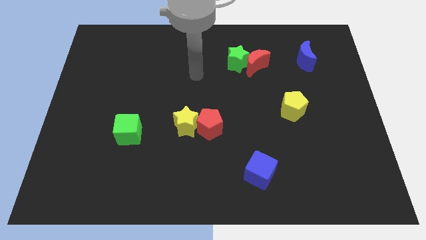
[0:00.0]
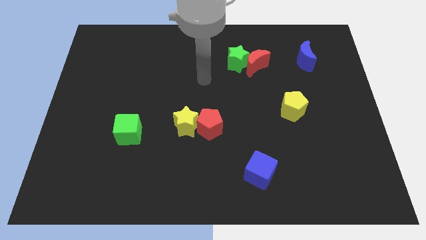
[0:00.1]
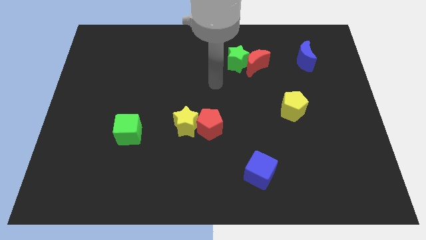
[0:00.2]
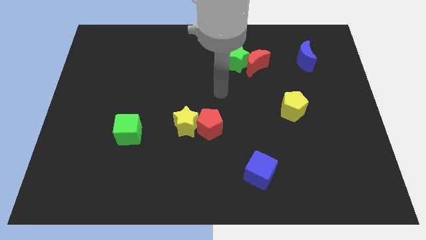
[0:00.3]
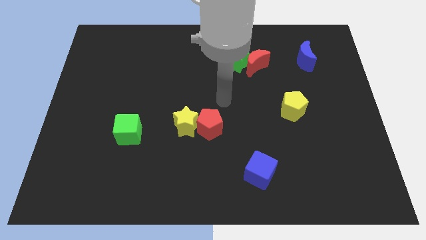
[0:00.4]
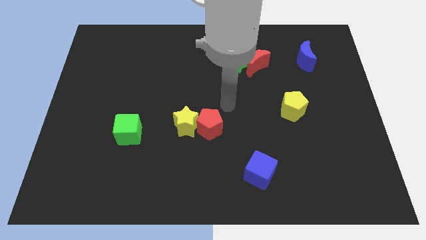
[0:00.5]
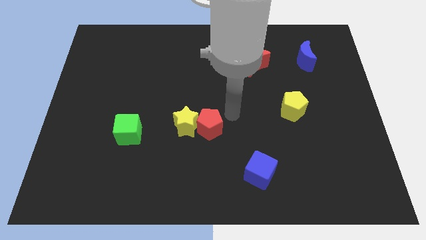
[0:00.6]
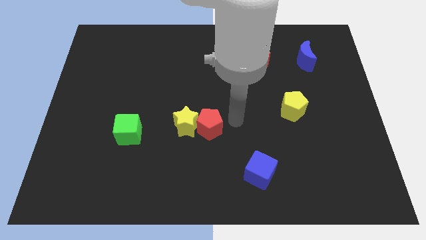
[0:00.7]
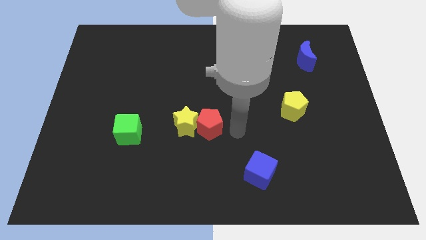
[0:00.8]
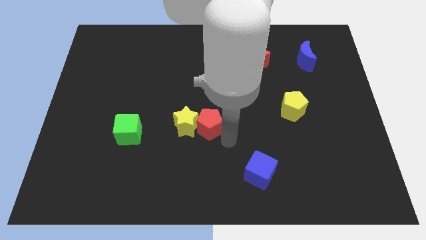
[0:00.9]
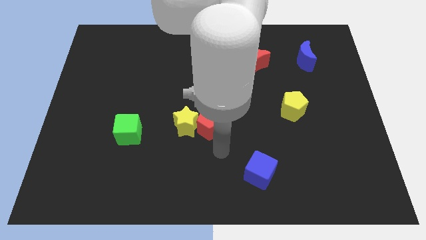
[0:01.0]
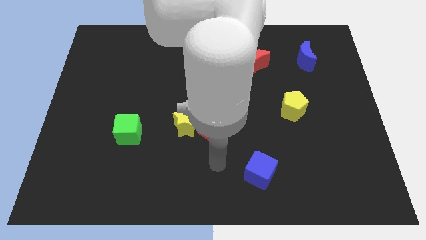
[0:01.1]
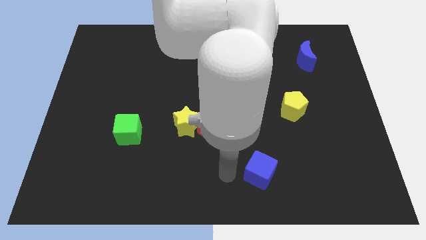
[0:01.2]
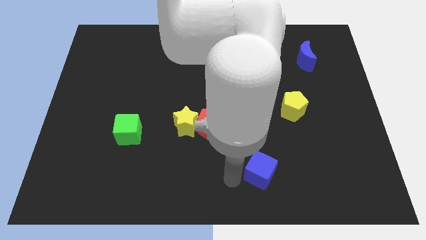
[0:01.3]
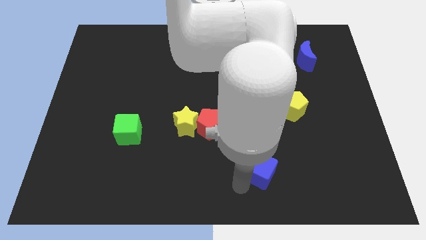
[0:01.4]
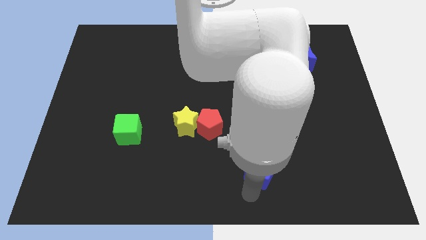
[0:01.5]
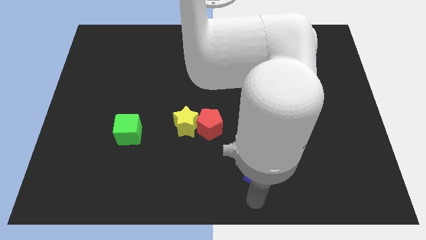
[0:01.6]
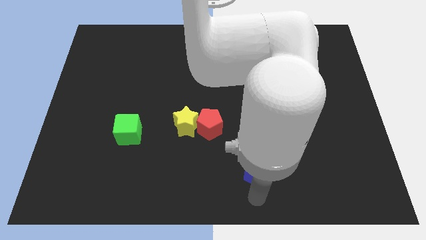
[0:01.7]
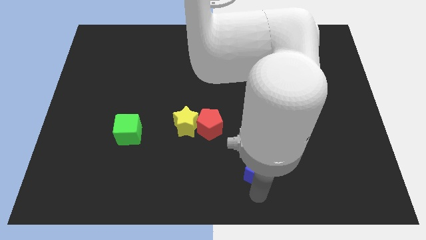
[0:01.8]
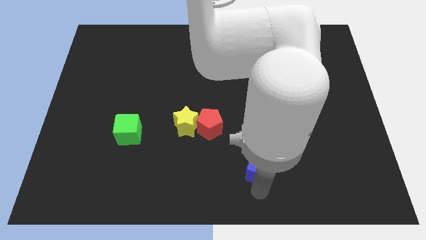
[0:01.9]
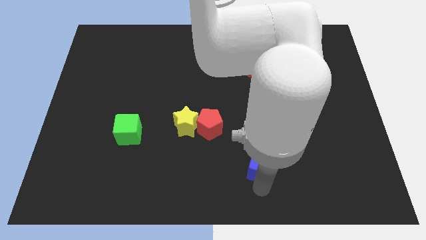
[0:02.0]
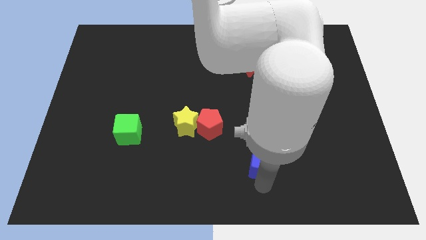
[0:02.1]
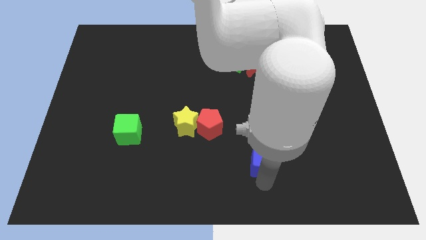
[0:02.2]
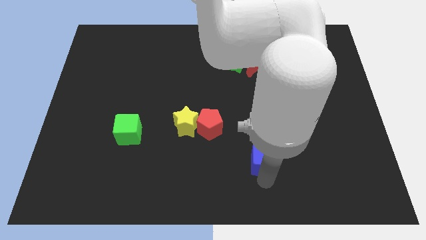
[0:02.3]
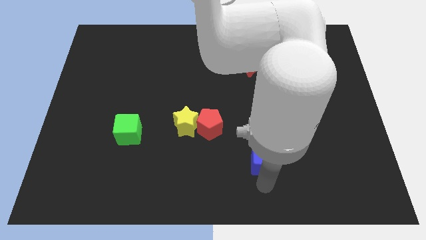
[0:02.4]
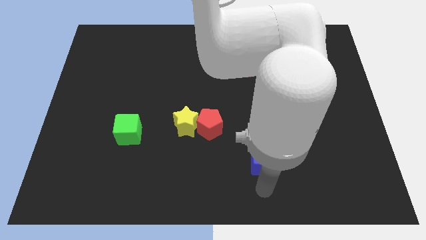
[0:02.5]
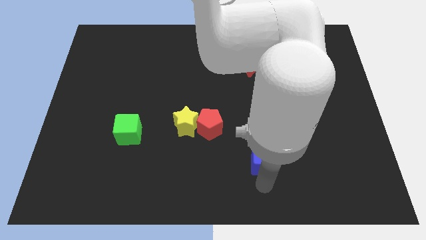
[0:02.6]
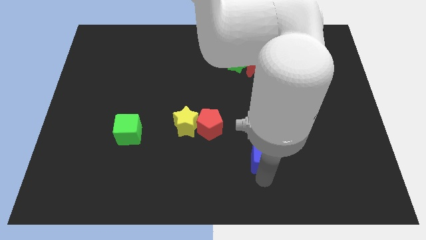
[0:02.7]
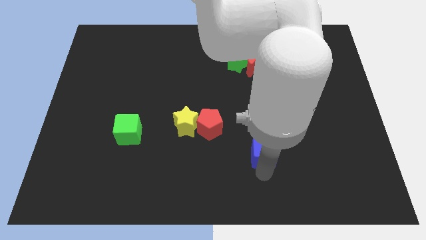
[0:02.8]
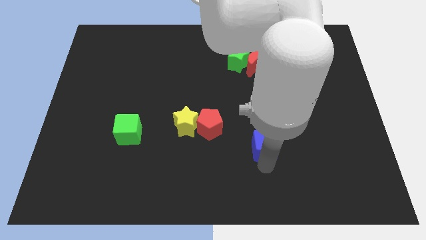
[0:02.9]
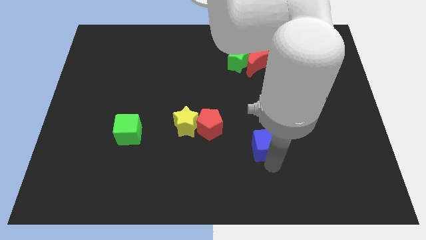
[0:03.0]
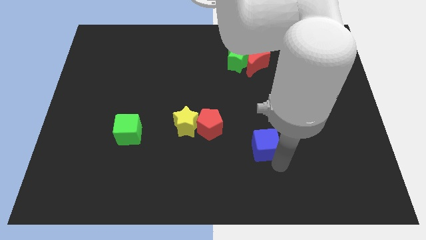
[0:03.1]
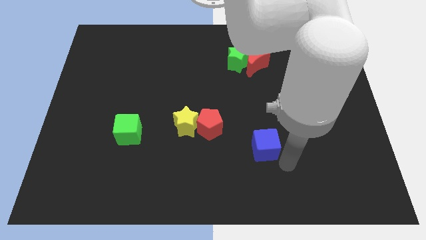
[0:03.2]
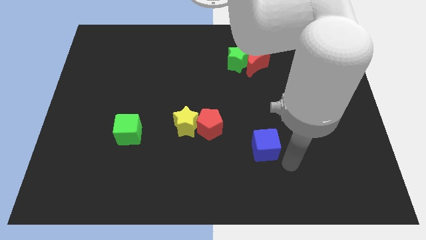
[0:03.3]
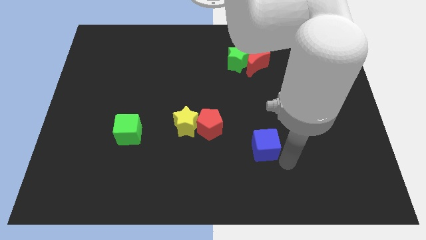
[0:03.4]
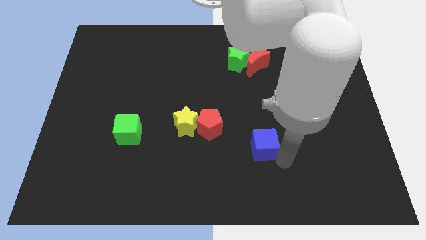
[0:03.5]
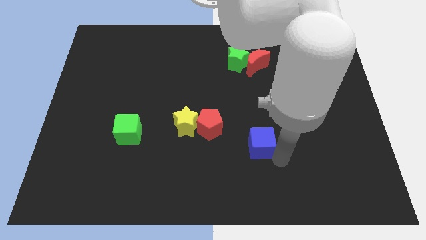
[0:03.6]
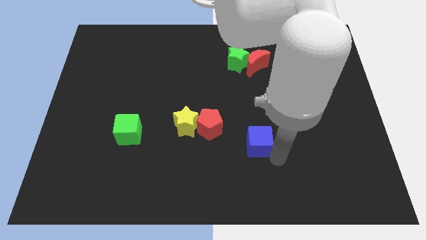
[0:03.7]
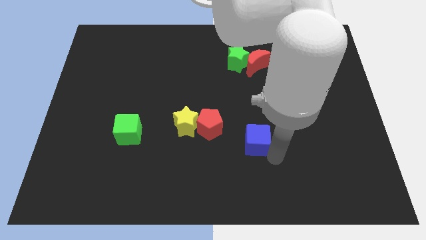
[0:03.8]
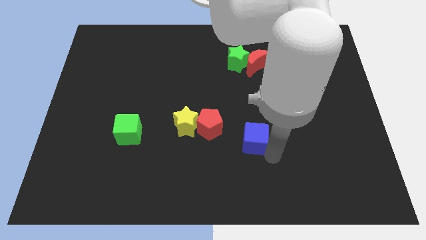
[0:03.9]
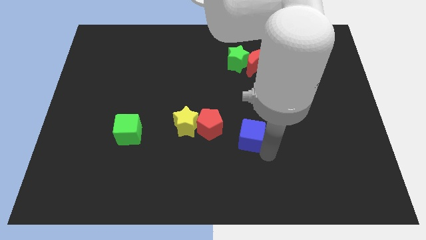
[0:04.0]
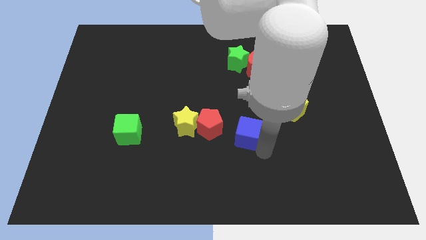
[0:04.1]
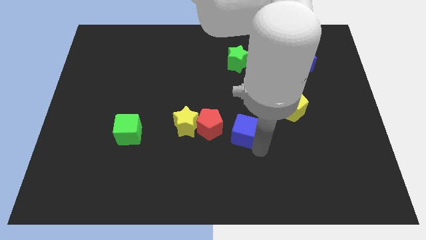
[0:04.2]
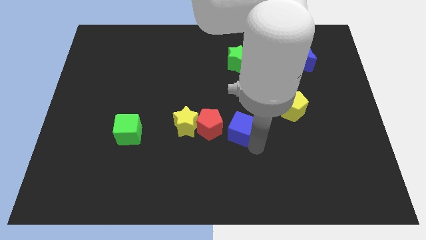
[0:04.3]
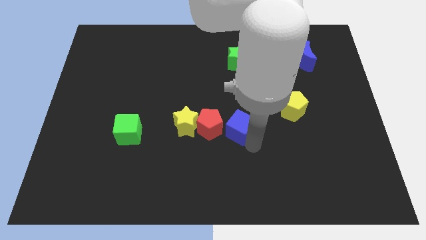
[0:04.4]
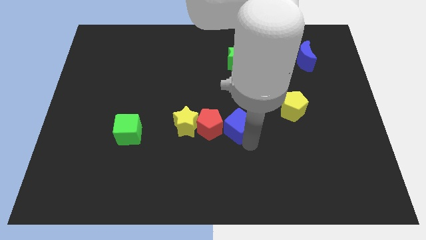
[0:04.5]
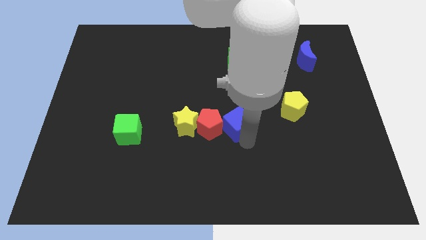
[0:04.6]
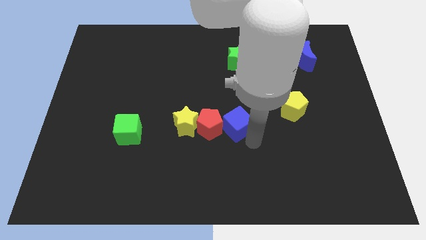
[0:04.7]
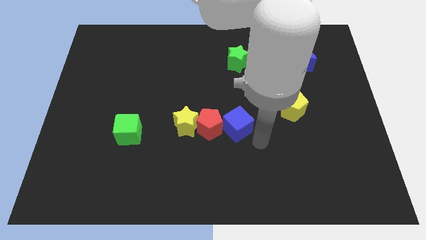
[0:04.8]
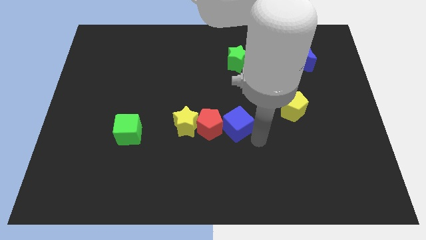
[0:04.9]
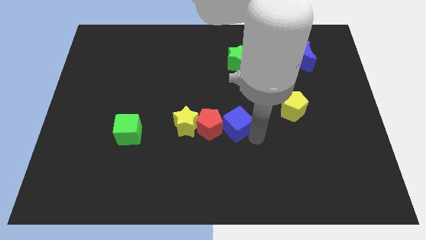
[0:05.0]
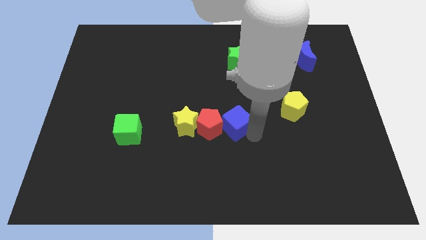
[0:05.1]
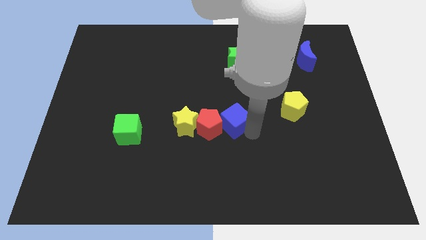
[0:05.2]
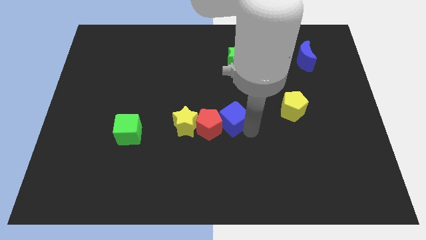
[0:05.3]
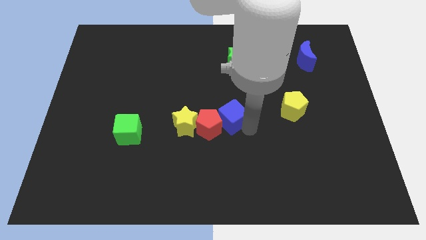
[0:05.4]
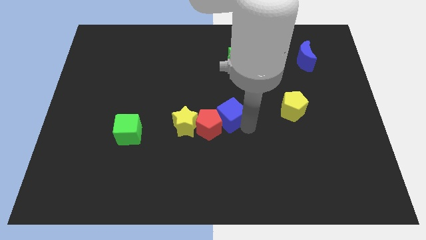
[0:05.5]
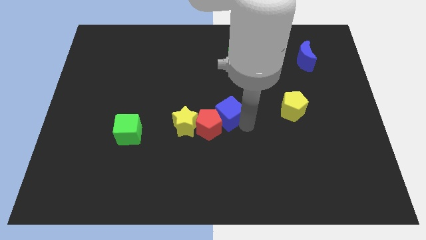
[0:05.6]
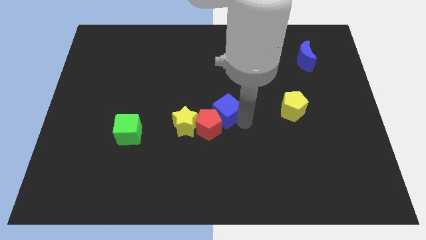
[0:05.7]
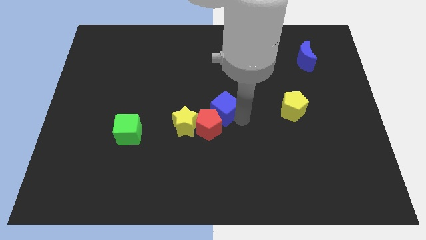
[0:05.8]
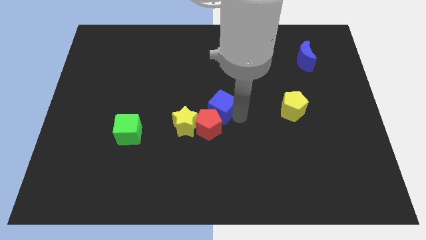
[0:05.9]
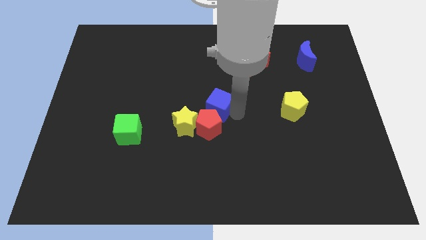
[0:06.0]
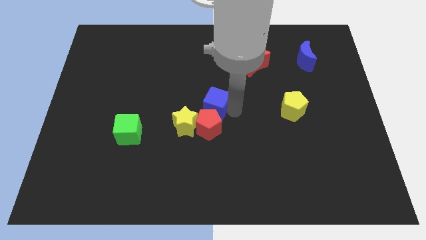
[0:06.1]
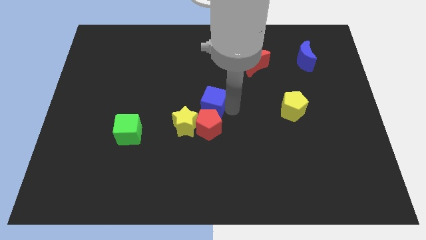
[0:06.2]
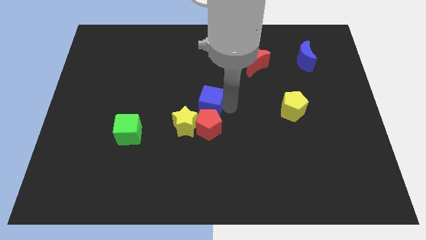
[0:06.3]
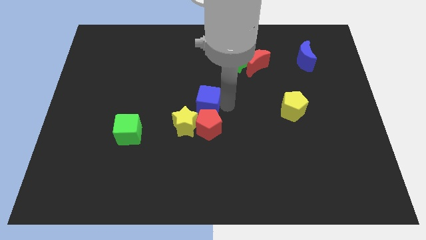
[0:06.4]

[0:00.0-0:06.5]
slide the blue cube to the top left of the red pentagon
